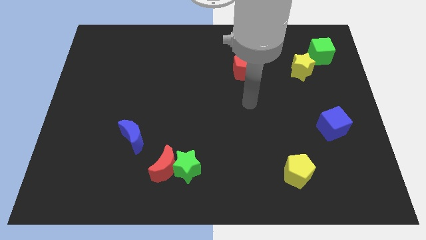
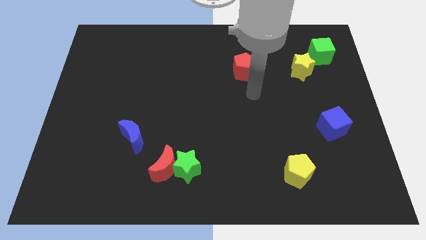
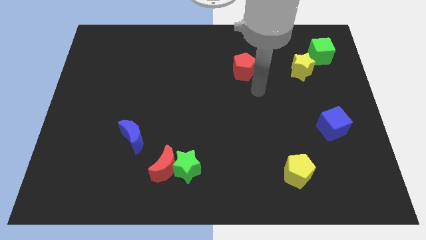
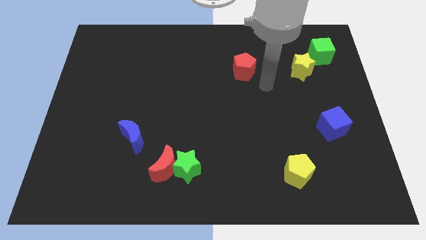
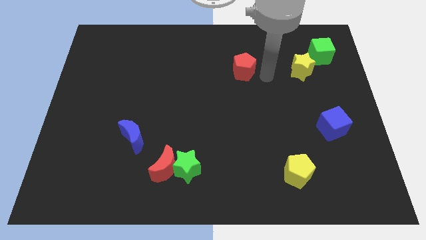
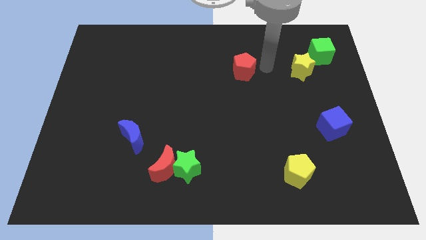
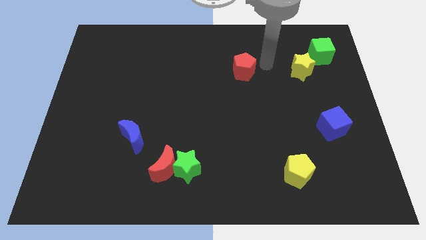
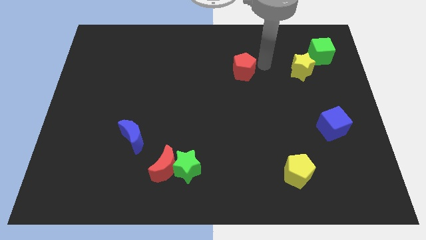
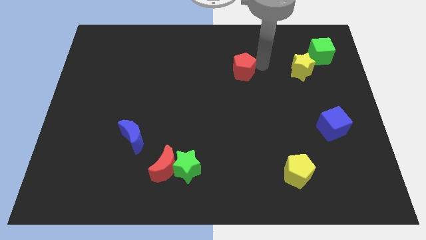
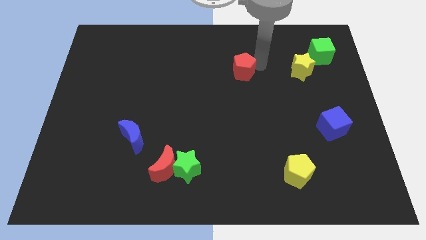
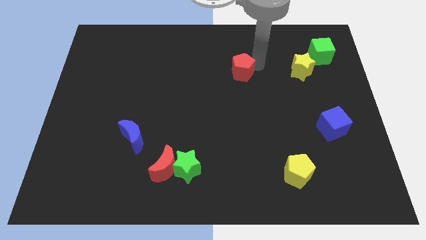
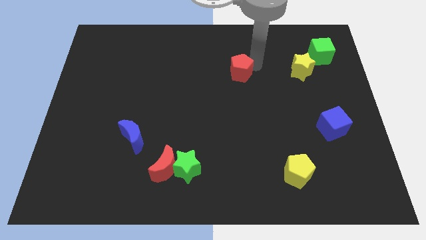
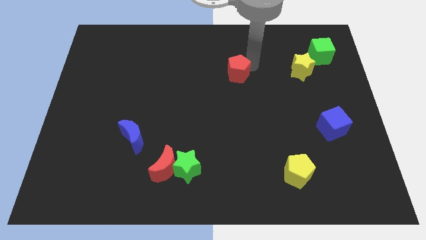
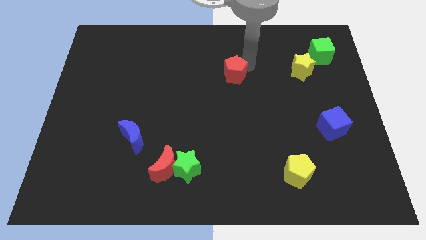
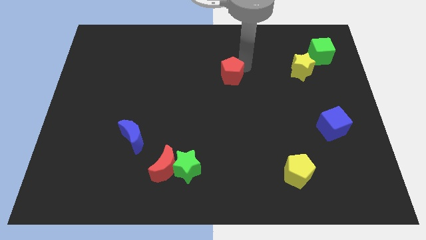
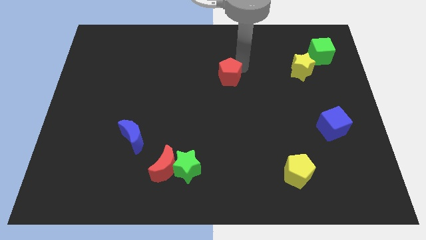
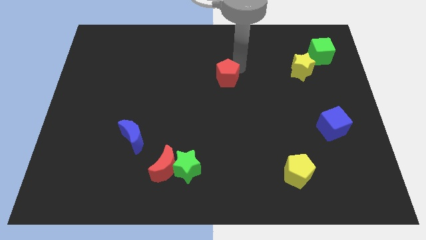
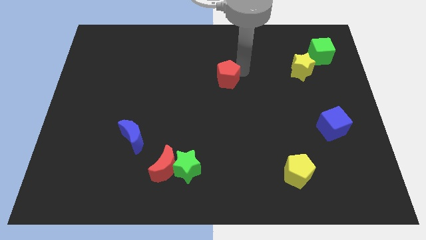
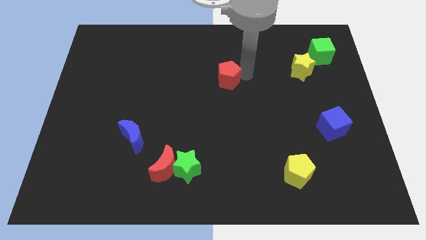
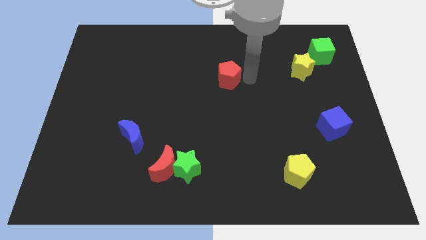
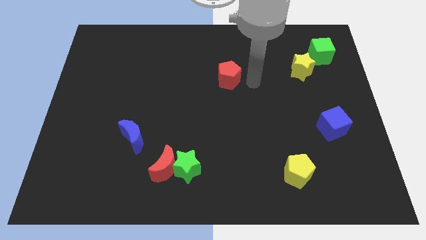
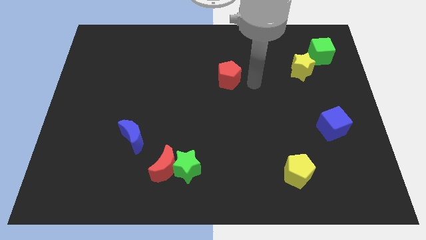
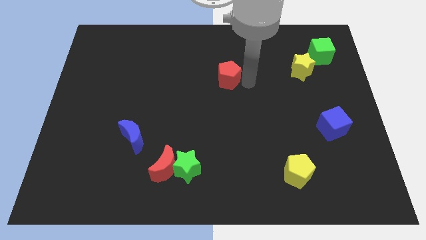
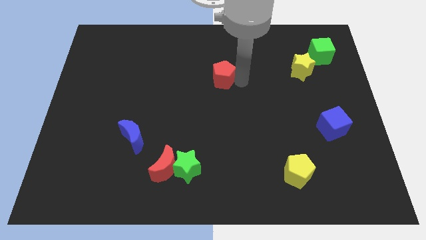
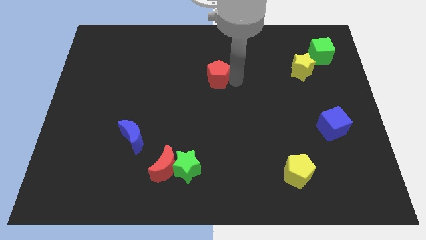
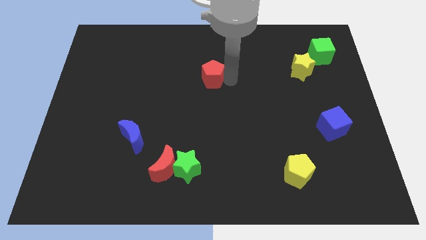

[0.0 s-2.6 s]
move the red pentagon to the left a little

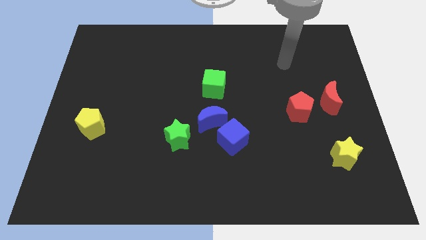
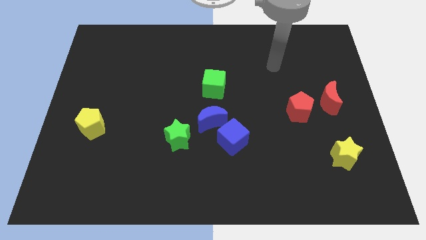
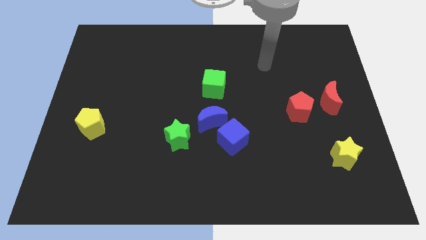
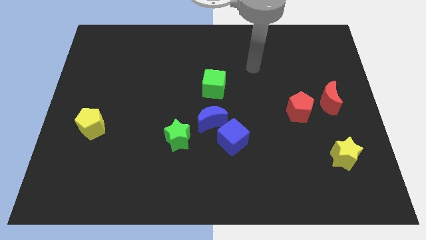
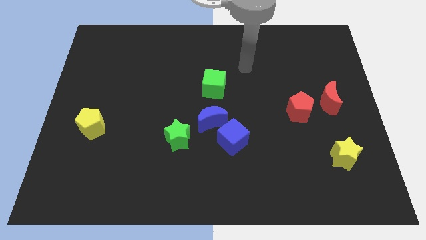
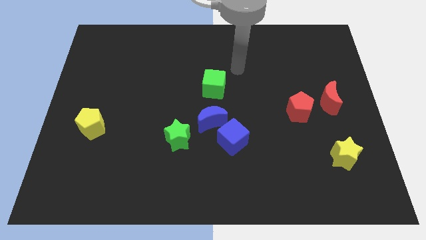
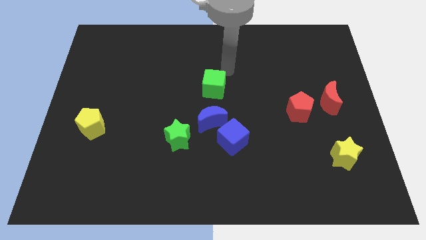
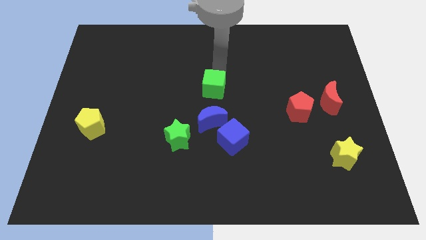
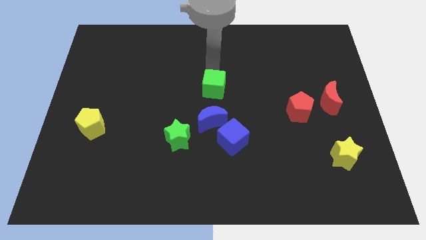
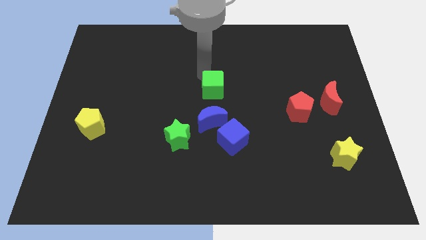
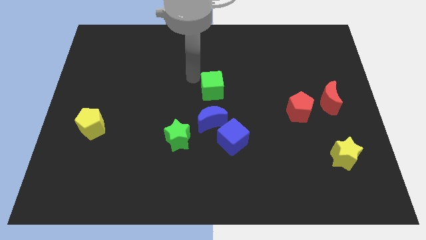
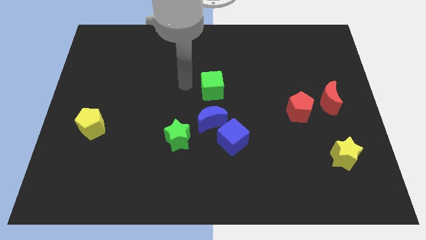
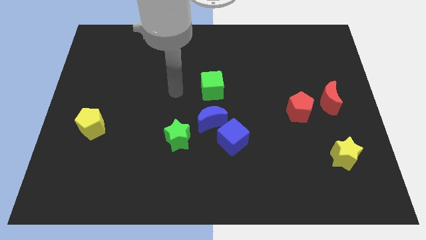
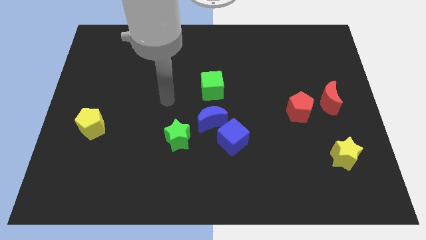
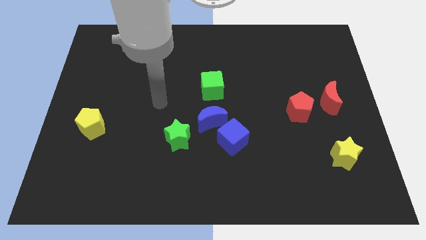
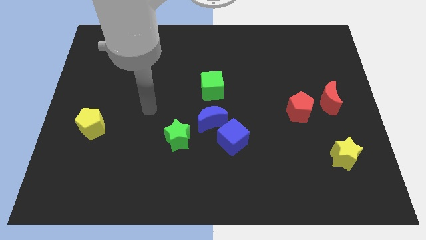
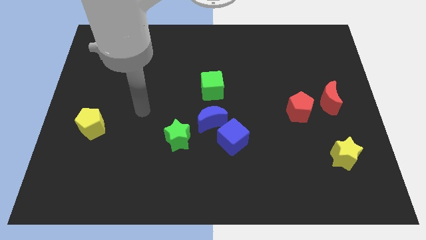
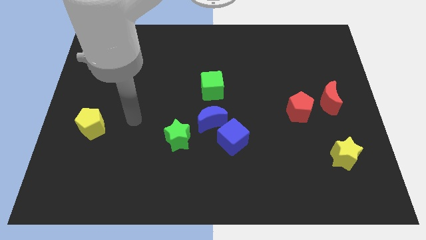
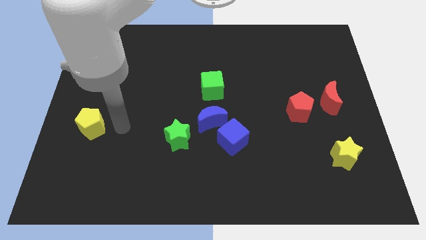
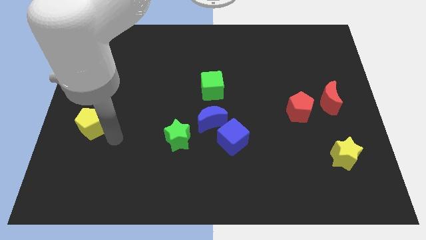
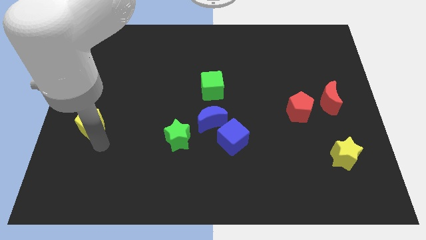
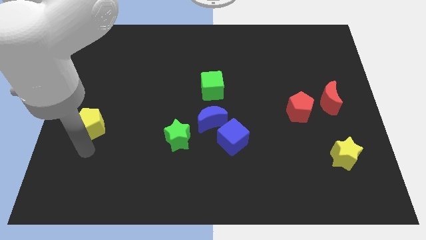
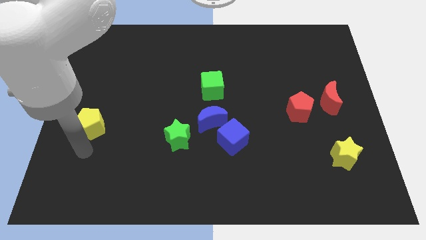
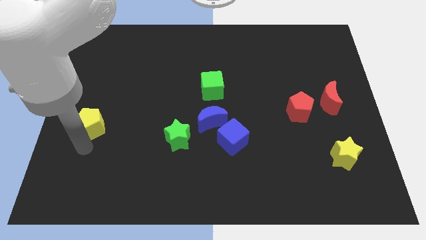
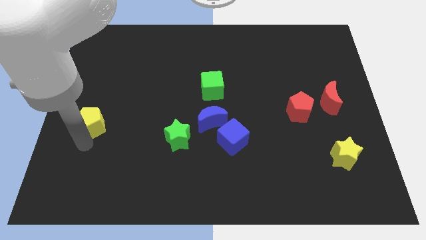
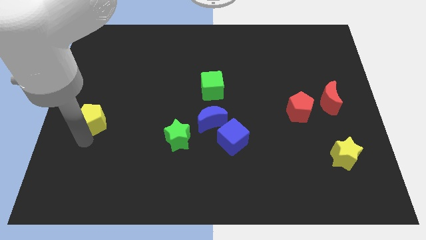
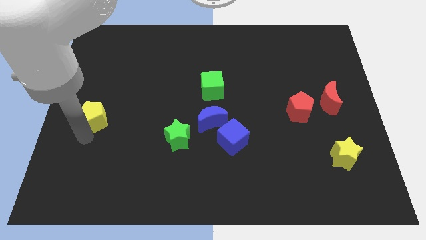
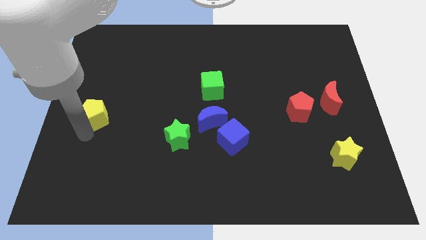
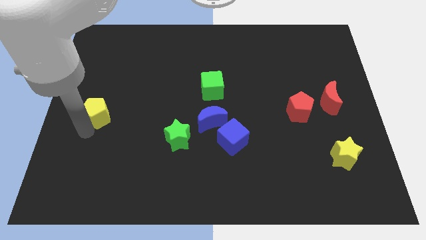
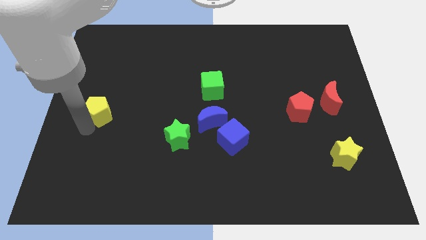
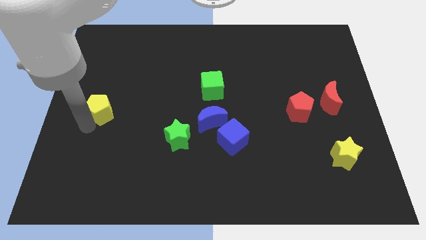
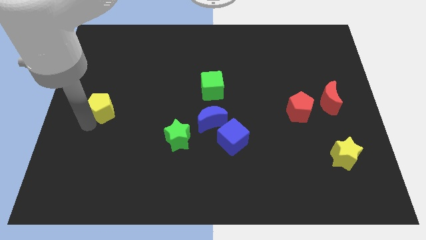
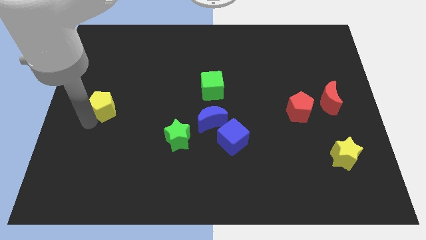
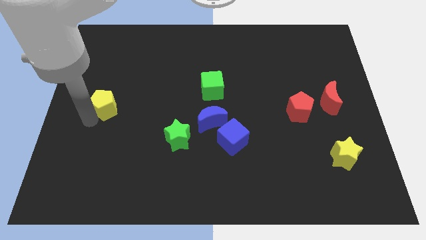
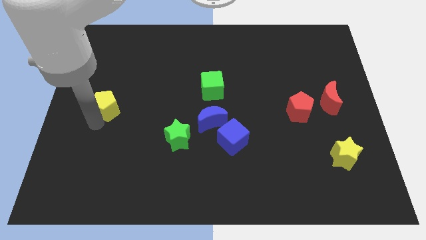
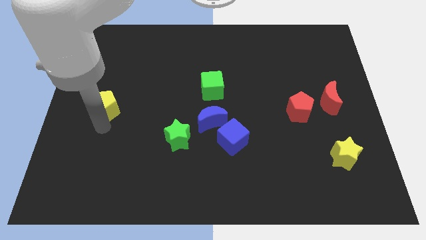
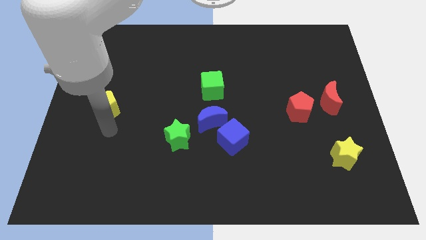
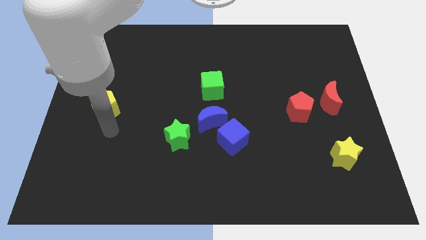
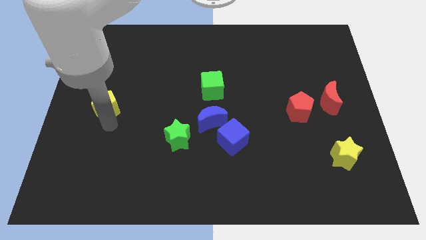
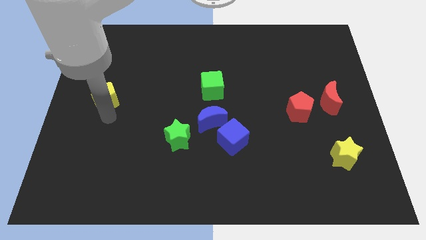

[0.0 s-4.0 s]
slightly move the yellow pentagon up

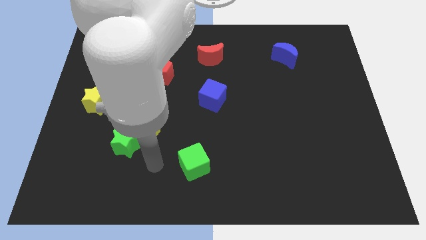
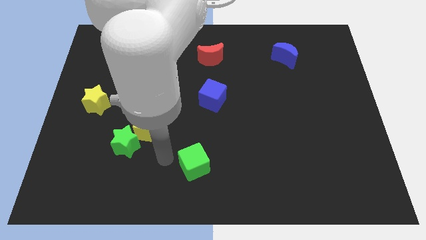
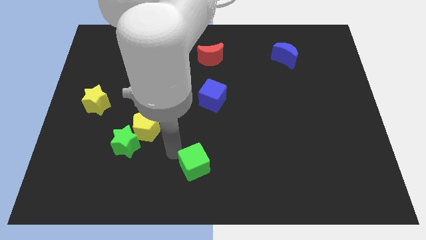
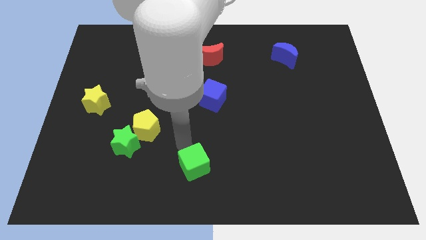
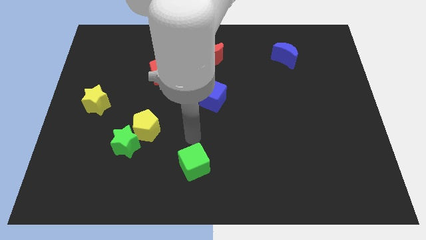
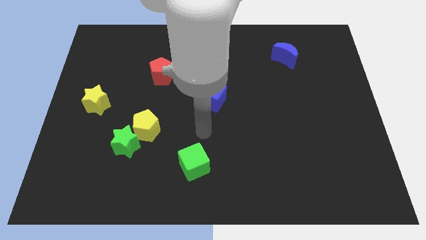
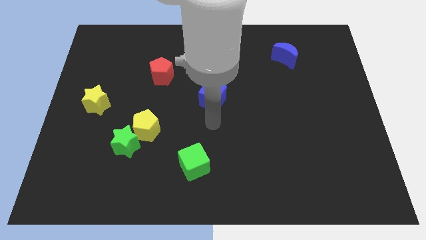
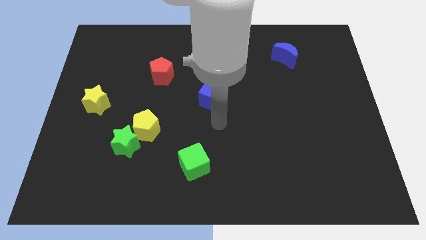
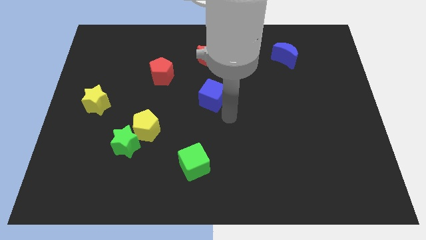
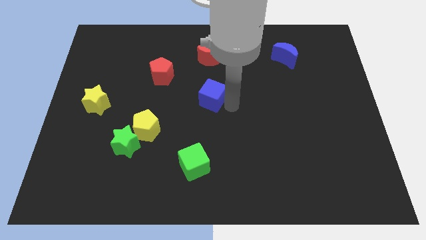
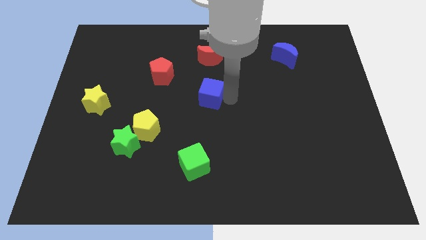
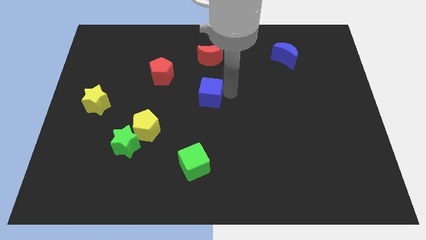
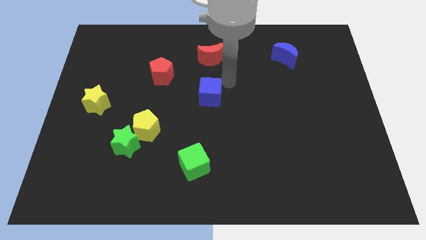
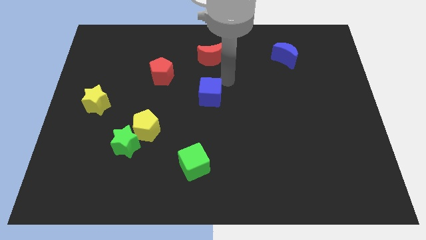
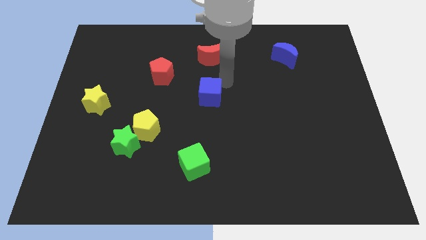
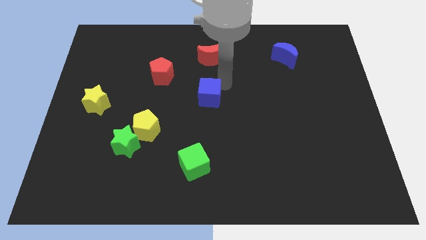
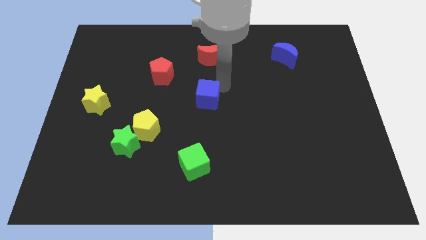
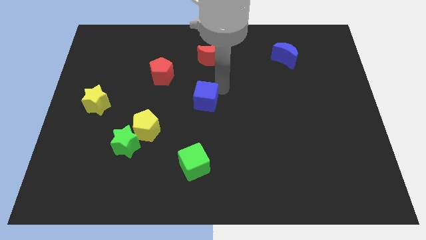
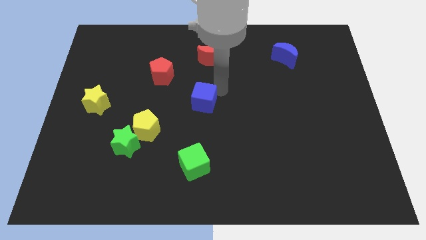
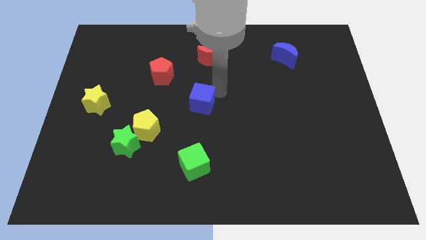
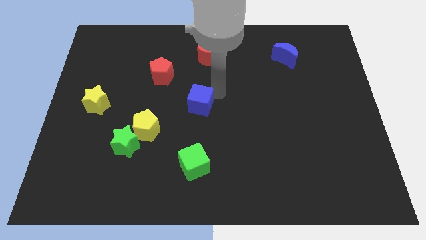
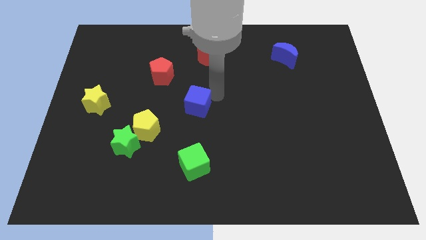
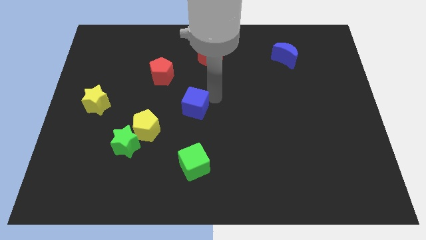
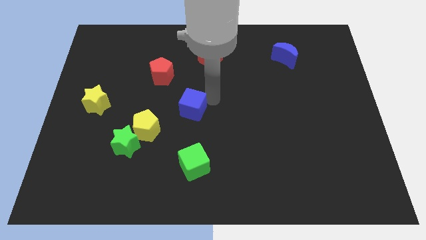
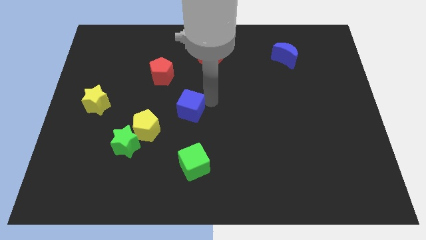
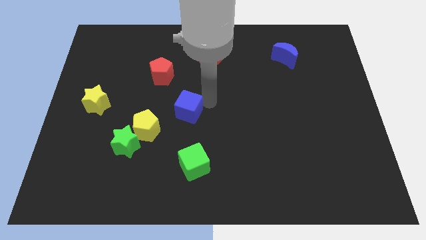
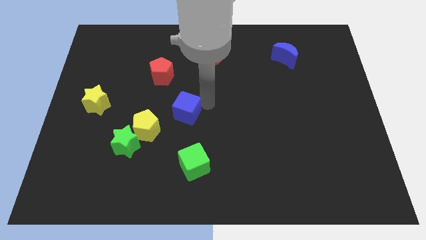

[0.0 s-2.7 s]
slightly slide the blue cube downwards and then to the left
